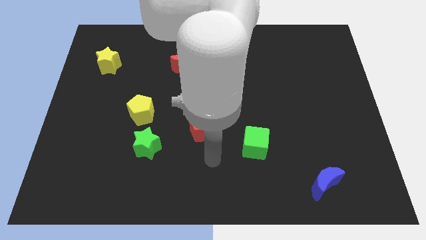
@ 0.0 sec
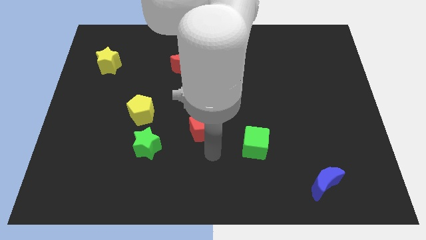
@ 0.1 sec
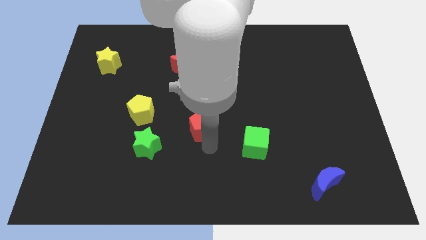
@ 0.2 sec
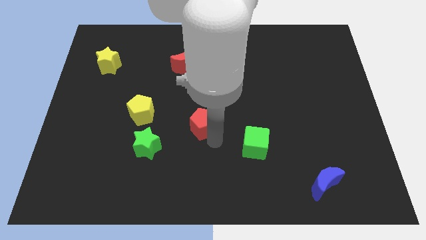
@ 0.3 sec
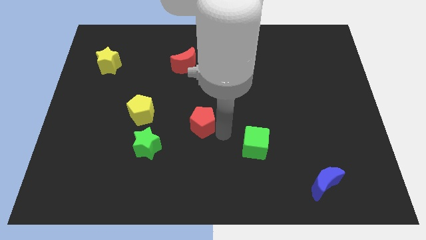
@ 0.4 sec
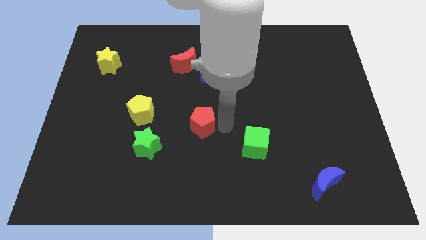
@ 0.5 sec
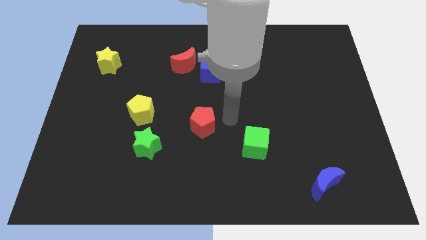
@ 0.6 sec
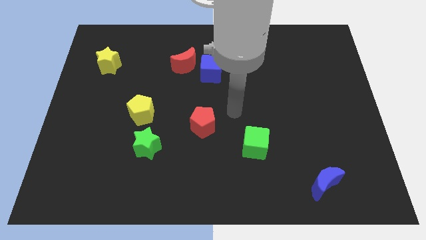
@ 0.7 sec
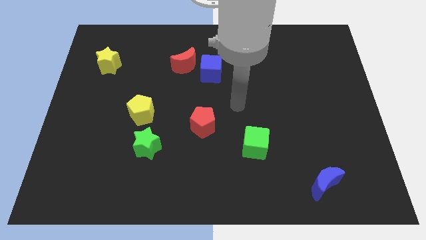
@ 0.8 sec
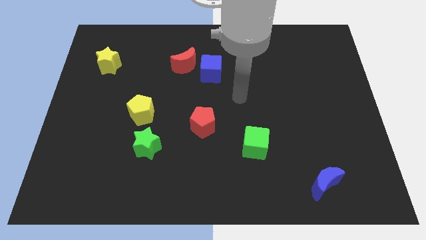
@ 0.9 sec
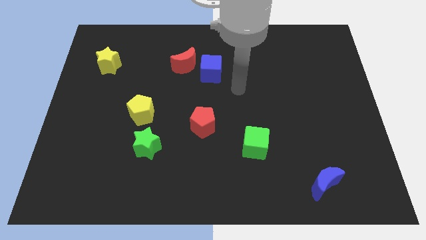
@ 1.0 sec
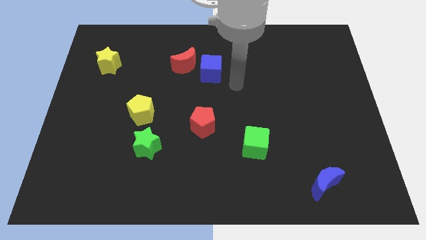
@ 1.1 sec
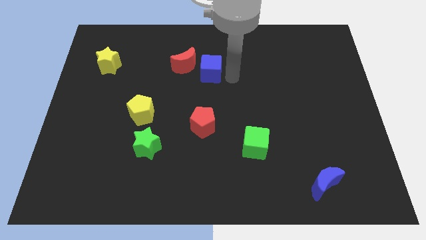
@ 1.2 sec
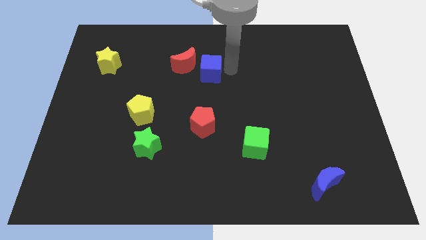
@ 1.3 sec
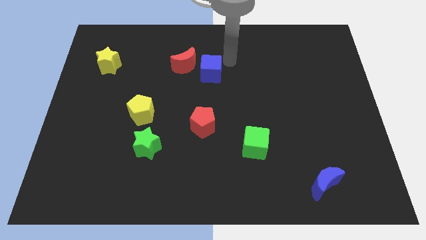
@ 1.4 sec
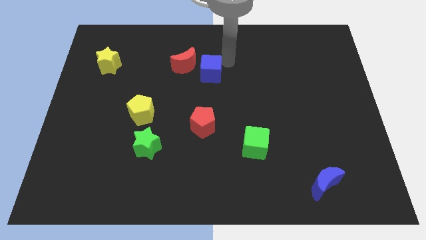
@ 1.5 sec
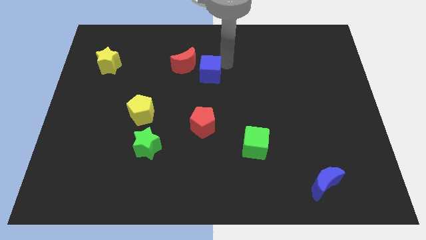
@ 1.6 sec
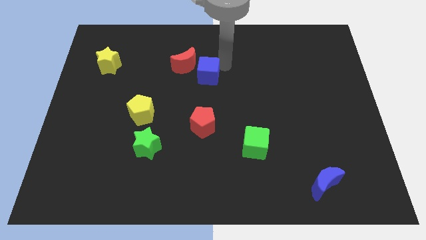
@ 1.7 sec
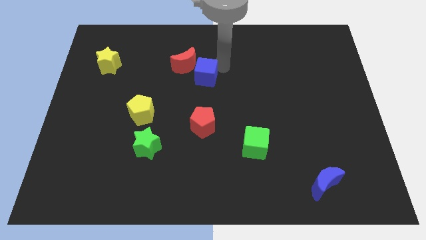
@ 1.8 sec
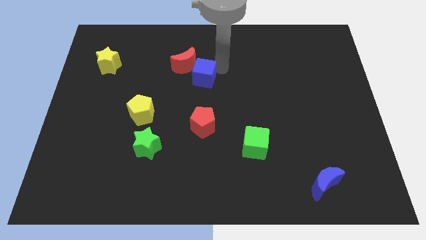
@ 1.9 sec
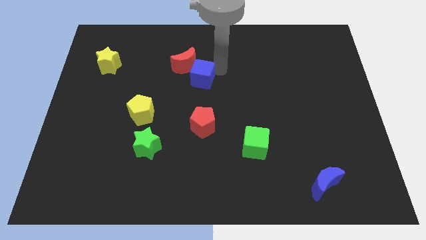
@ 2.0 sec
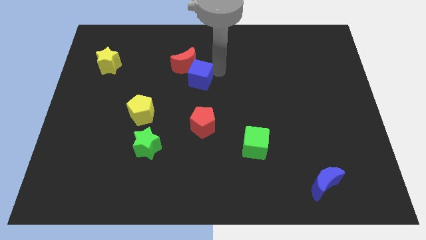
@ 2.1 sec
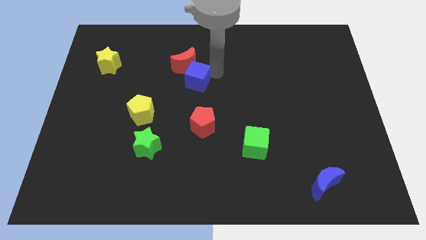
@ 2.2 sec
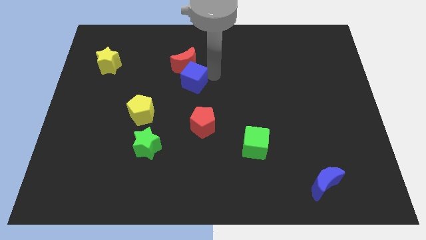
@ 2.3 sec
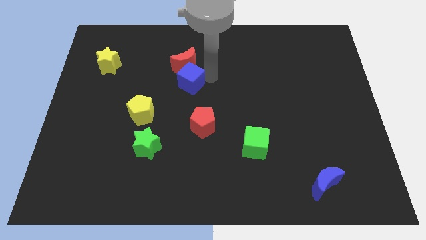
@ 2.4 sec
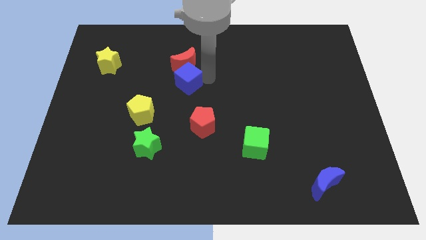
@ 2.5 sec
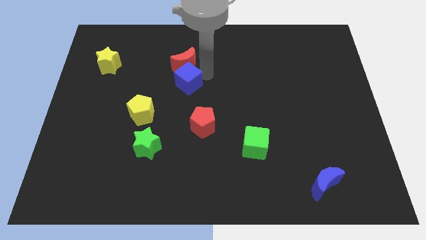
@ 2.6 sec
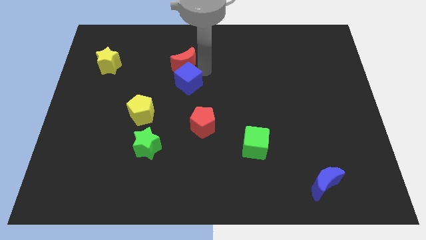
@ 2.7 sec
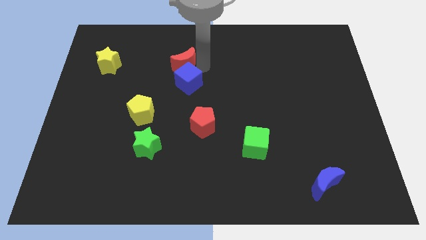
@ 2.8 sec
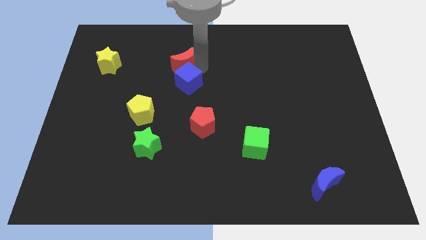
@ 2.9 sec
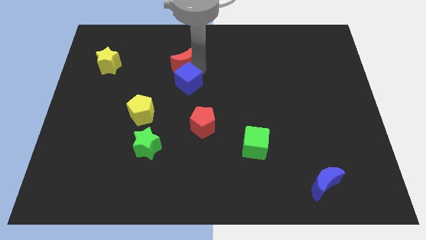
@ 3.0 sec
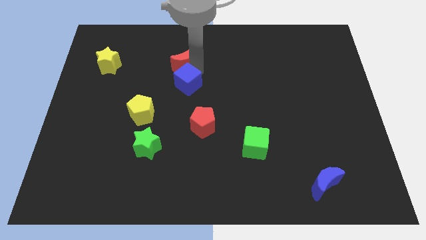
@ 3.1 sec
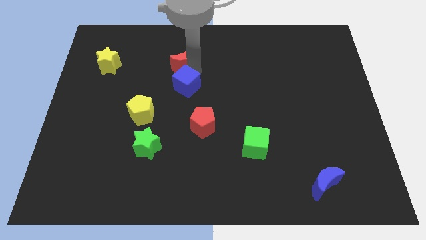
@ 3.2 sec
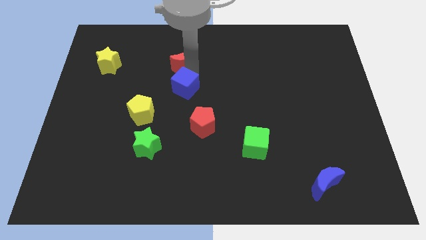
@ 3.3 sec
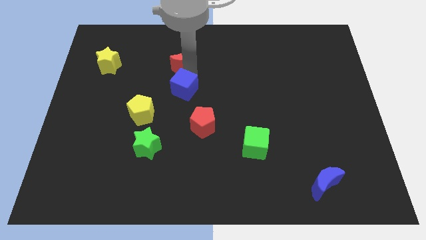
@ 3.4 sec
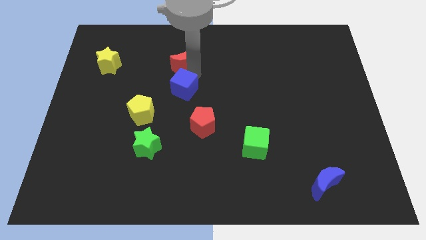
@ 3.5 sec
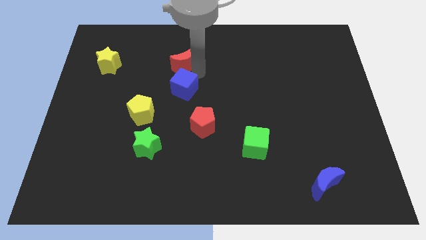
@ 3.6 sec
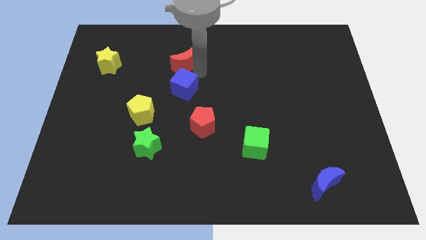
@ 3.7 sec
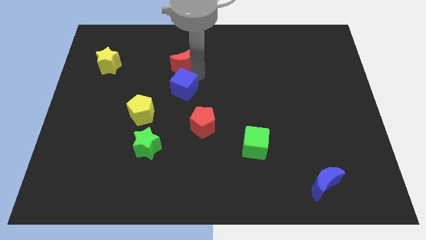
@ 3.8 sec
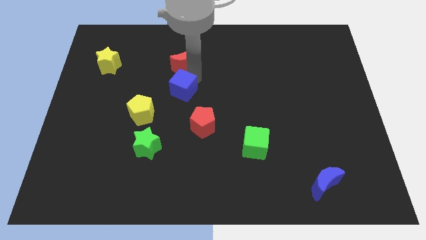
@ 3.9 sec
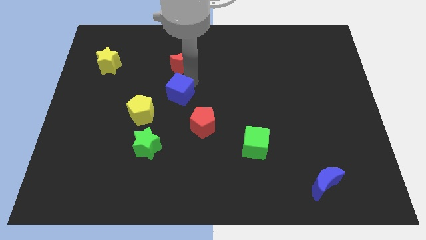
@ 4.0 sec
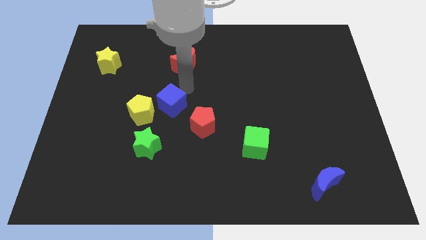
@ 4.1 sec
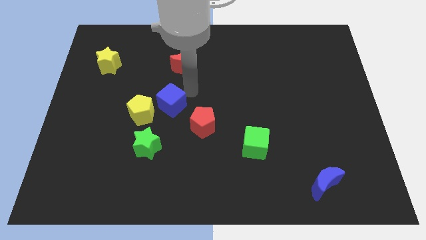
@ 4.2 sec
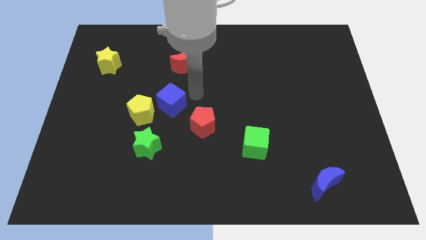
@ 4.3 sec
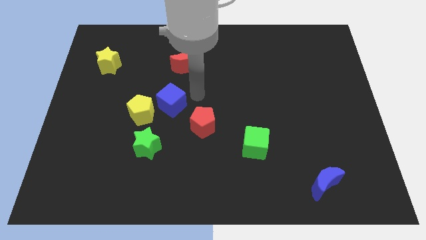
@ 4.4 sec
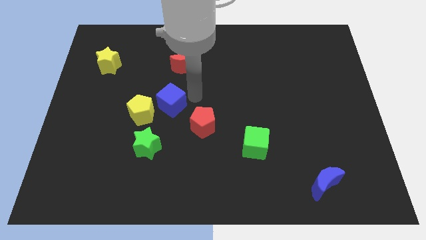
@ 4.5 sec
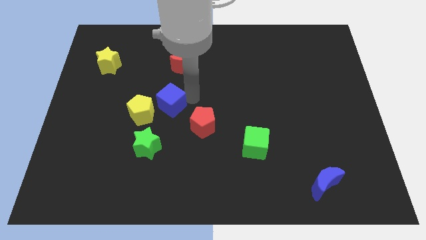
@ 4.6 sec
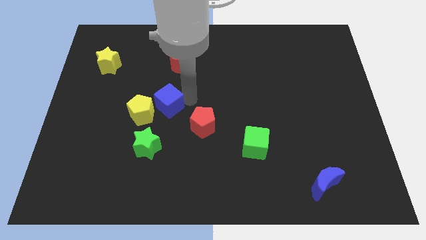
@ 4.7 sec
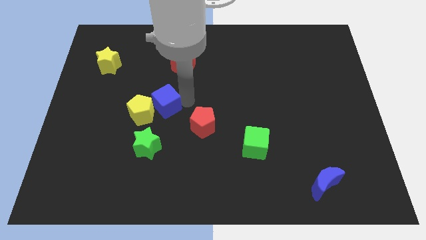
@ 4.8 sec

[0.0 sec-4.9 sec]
push the blue cube close to the yellow pentagon

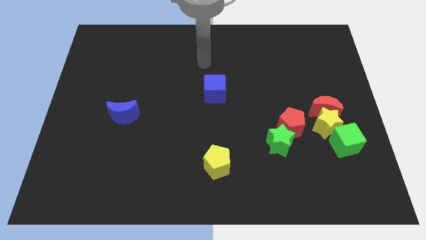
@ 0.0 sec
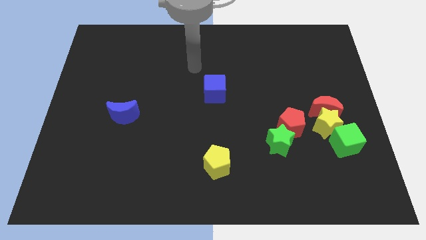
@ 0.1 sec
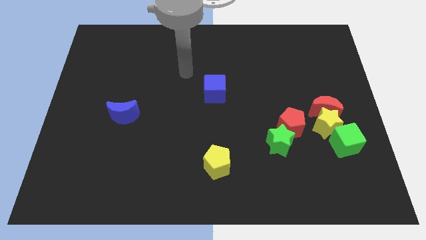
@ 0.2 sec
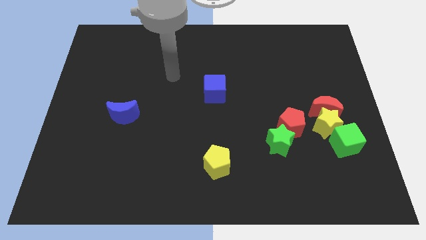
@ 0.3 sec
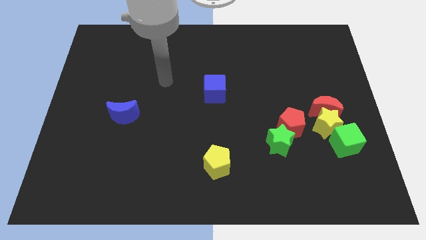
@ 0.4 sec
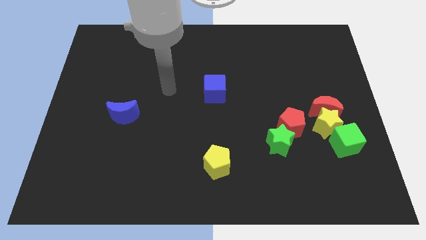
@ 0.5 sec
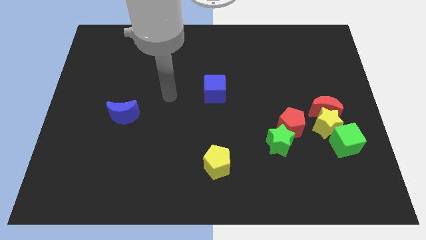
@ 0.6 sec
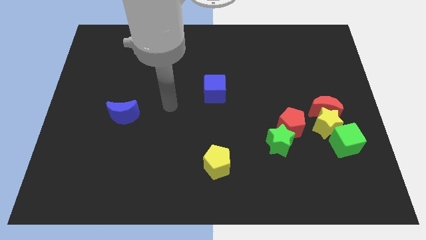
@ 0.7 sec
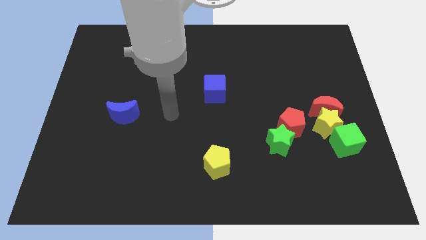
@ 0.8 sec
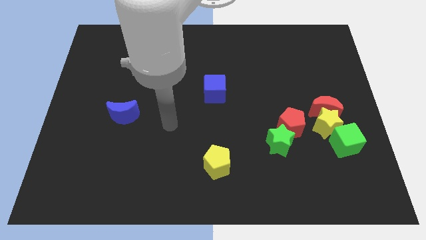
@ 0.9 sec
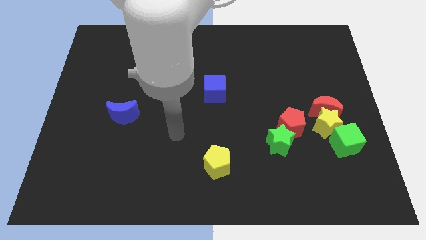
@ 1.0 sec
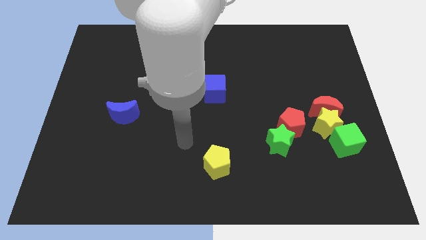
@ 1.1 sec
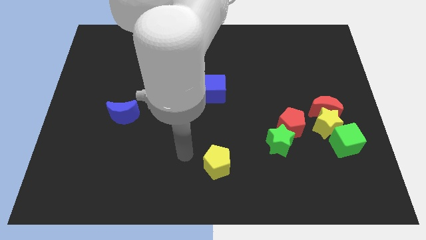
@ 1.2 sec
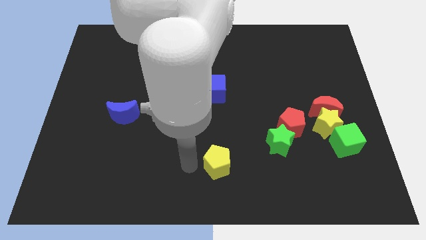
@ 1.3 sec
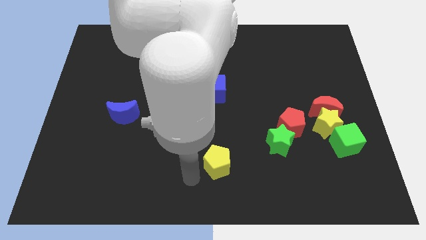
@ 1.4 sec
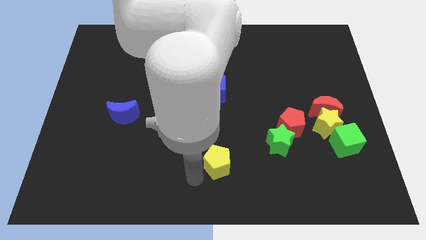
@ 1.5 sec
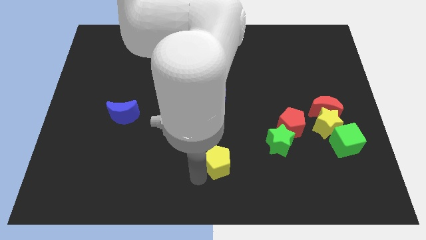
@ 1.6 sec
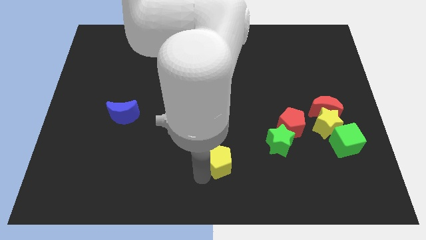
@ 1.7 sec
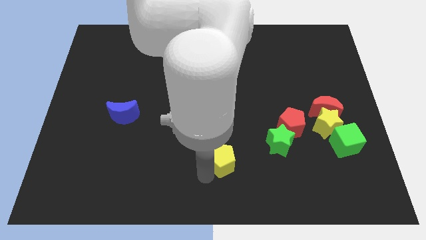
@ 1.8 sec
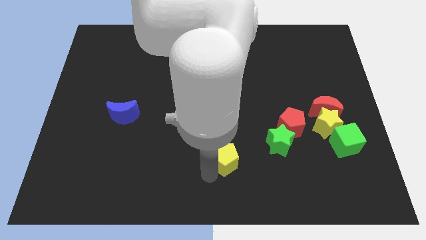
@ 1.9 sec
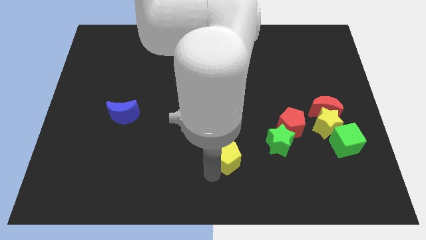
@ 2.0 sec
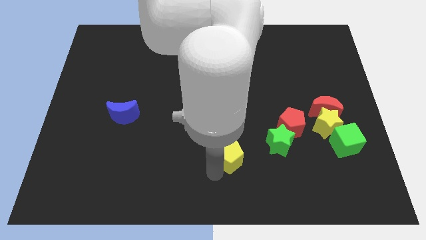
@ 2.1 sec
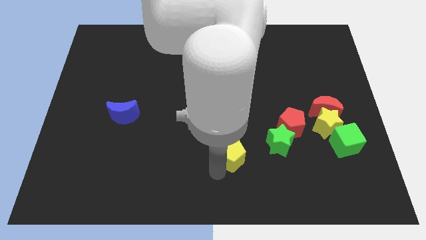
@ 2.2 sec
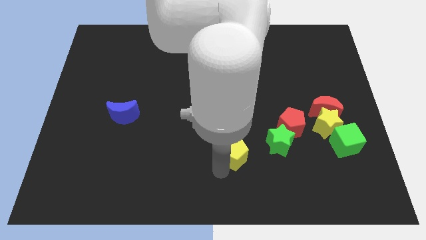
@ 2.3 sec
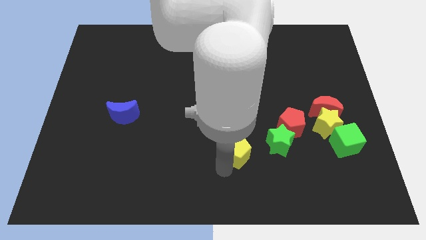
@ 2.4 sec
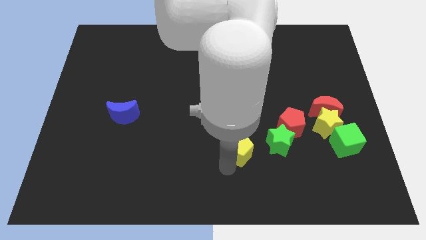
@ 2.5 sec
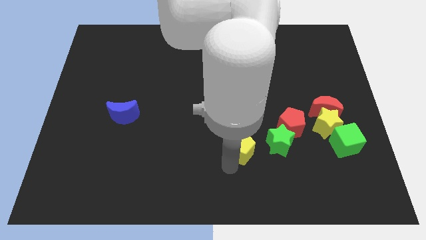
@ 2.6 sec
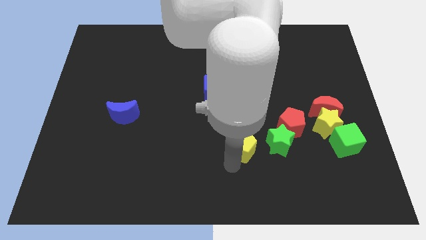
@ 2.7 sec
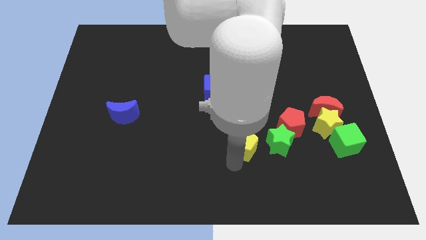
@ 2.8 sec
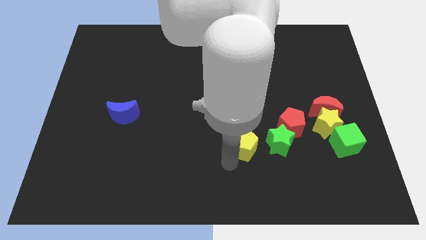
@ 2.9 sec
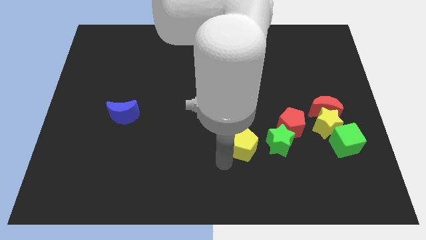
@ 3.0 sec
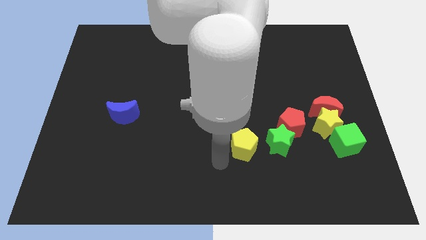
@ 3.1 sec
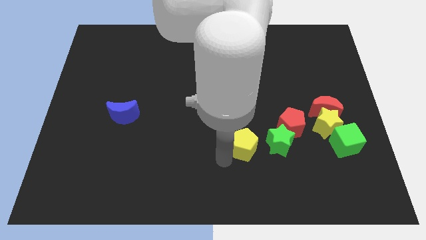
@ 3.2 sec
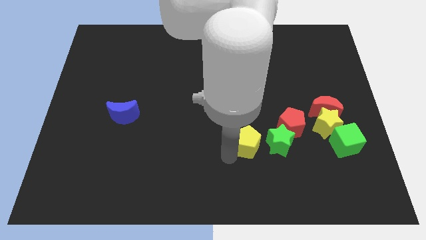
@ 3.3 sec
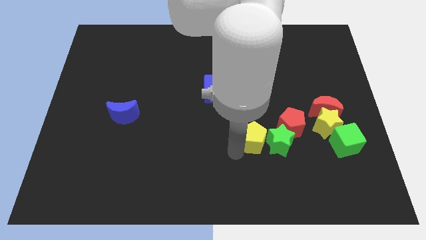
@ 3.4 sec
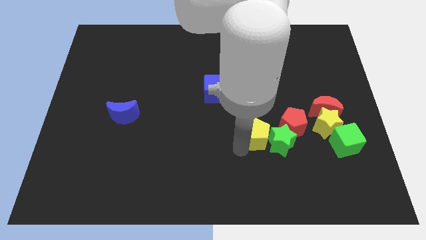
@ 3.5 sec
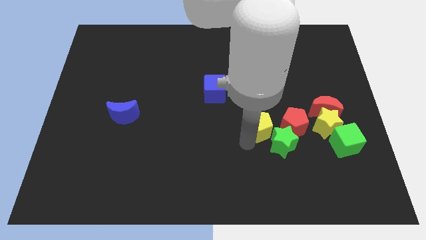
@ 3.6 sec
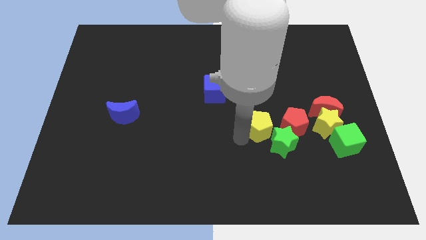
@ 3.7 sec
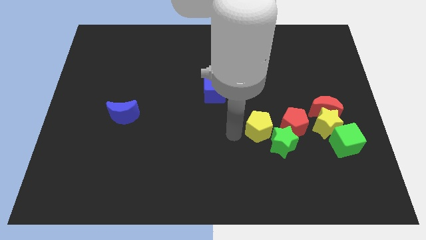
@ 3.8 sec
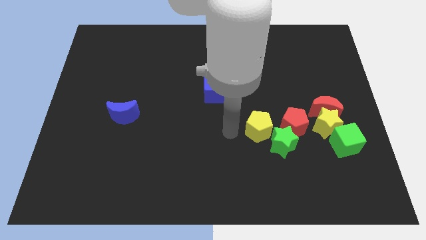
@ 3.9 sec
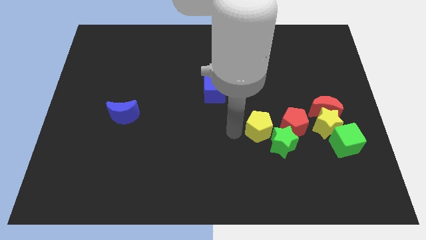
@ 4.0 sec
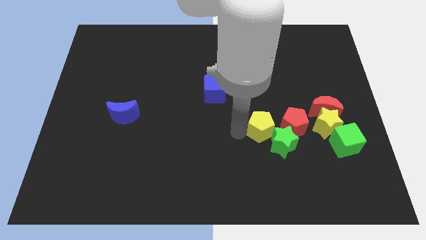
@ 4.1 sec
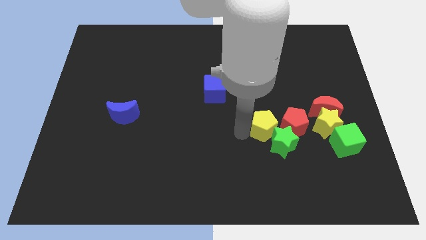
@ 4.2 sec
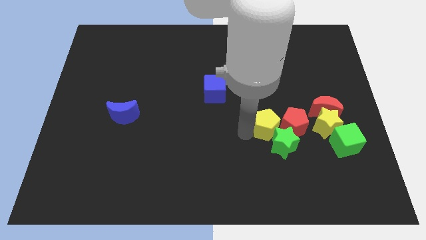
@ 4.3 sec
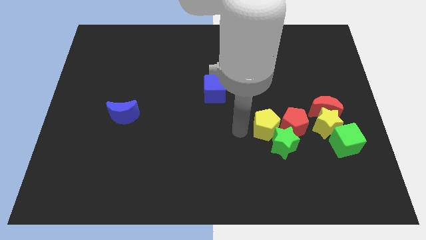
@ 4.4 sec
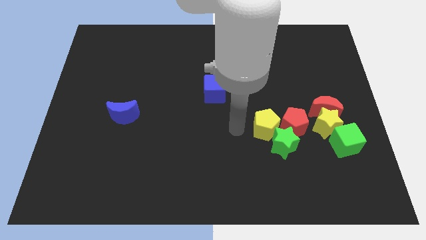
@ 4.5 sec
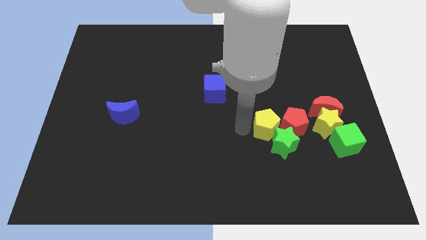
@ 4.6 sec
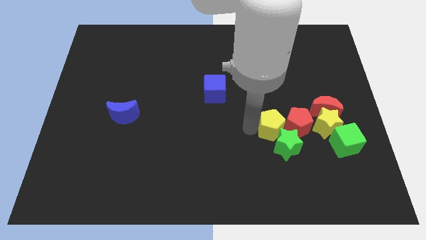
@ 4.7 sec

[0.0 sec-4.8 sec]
slide the yellow pentagon next to the red pentagon
